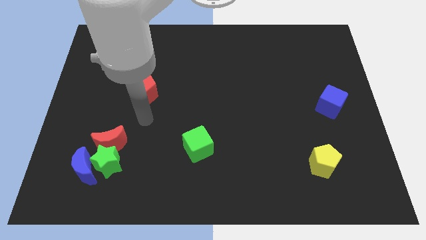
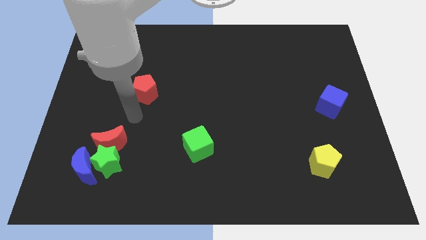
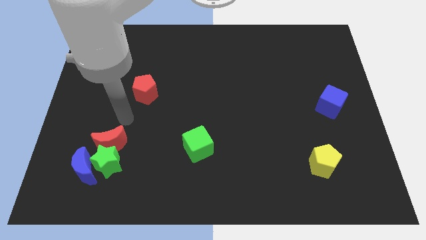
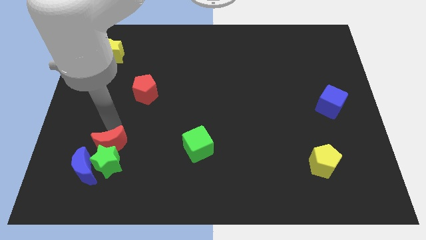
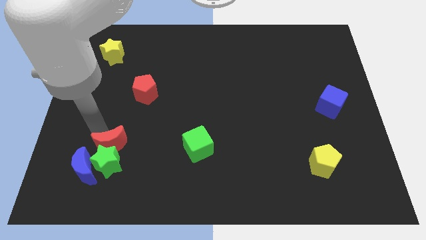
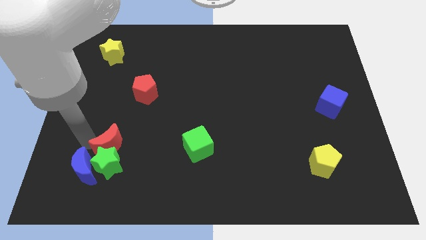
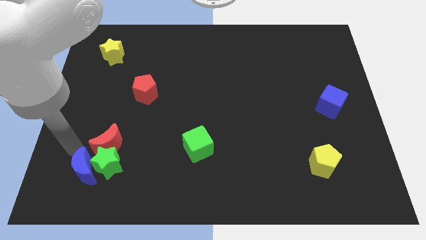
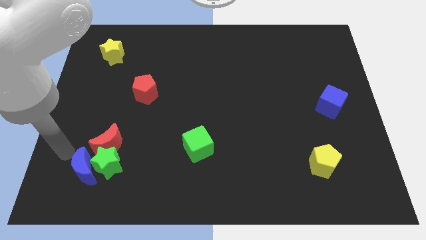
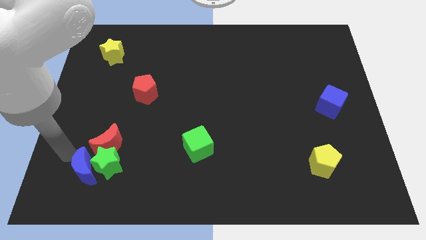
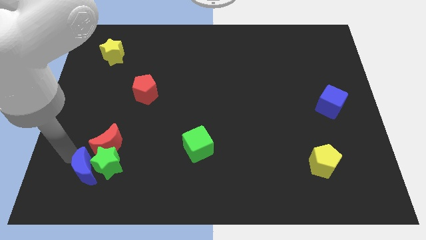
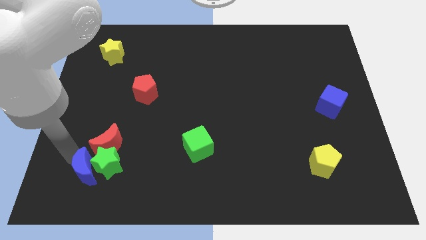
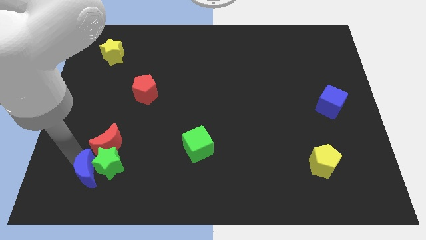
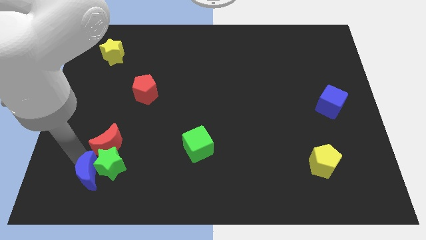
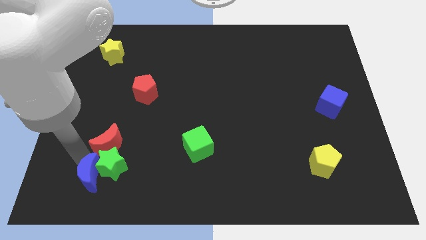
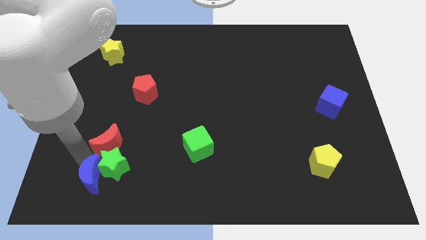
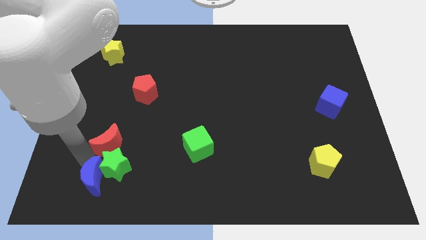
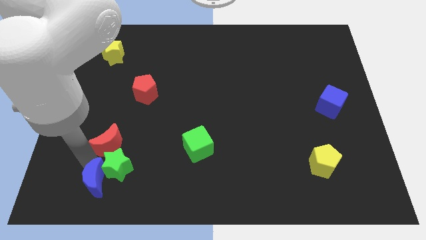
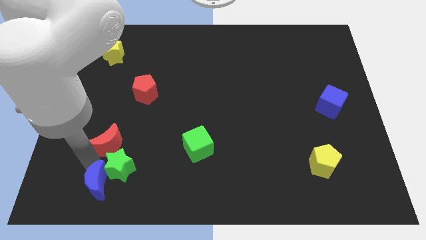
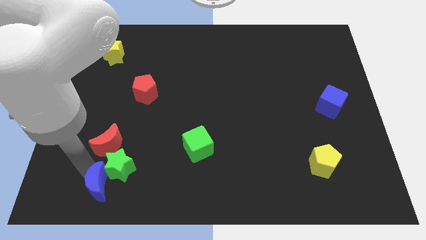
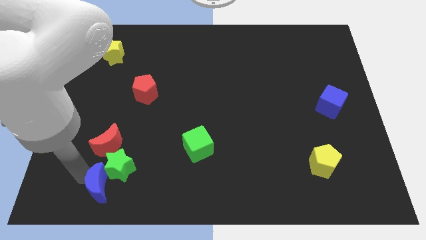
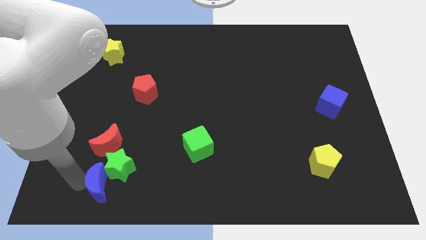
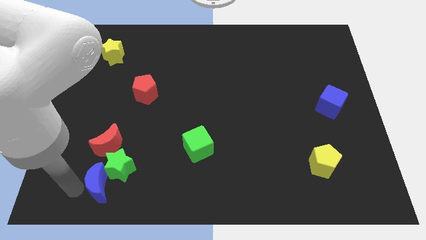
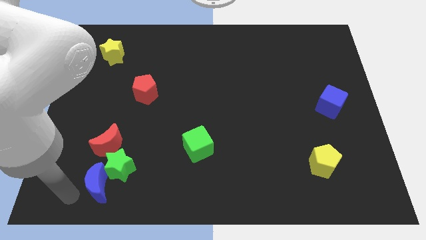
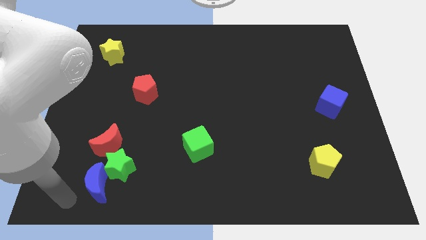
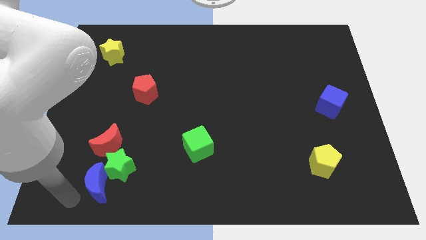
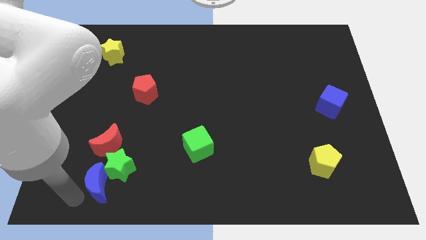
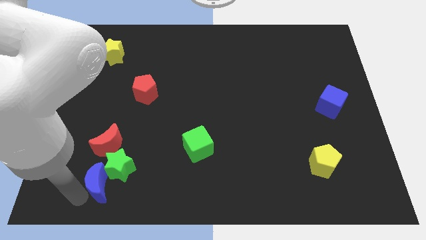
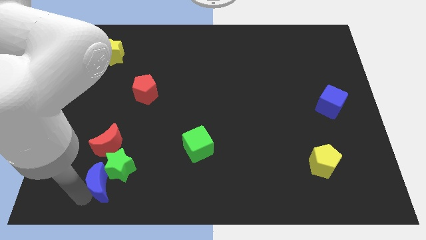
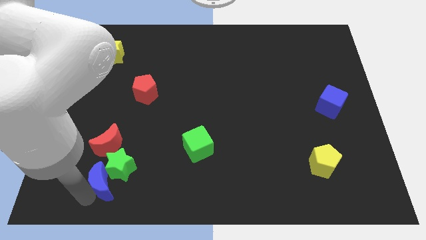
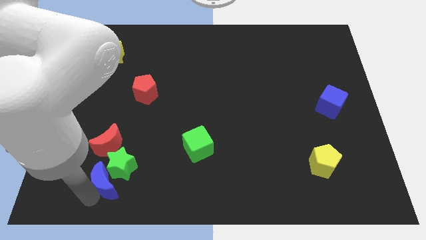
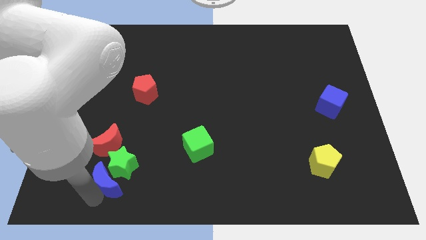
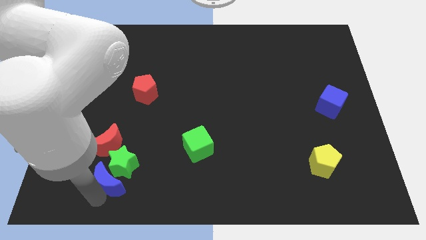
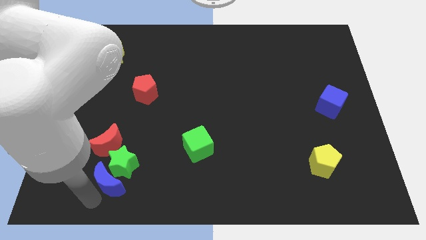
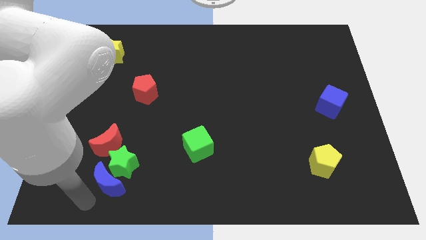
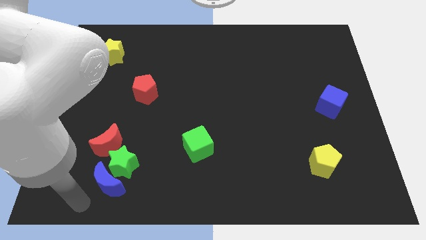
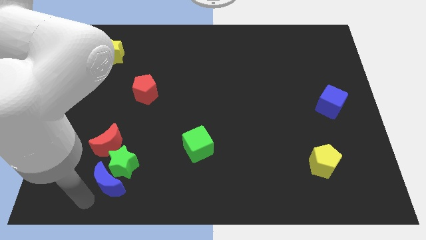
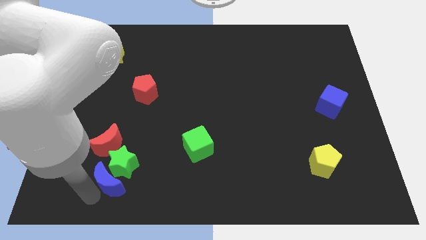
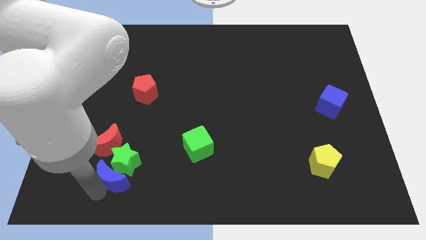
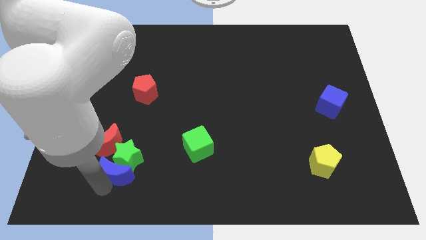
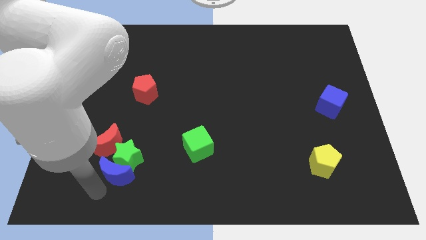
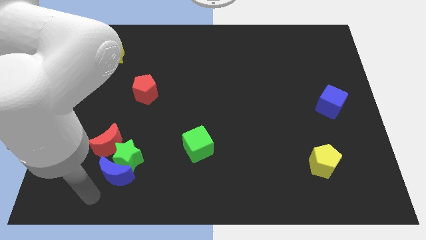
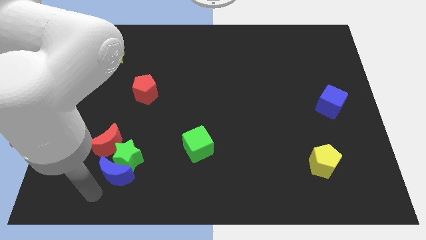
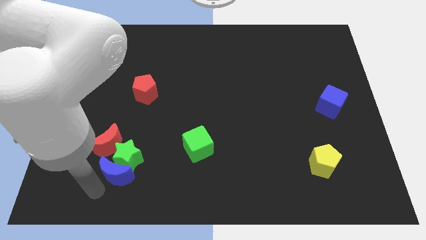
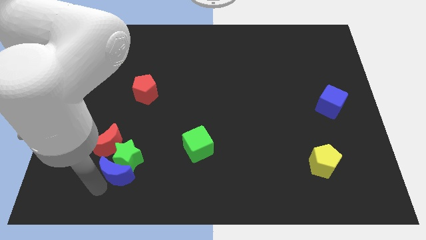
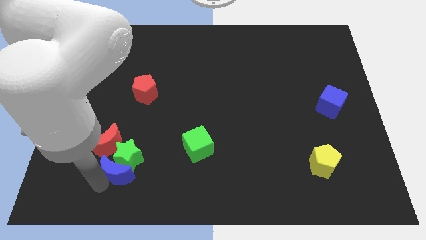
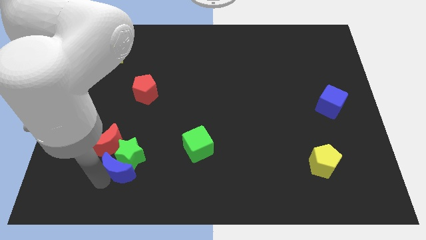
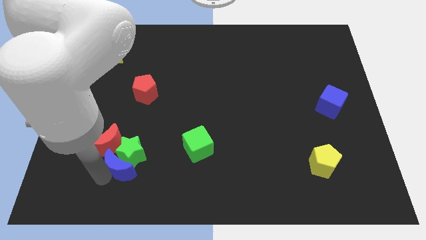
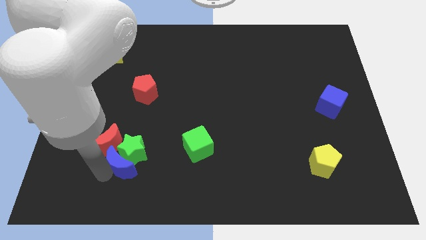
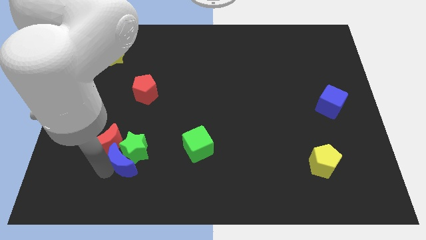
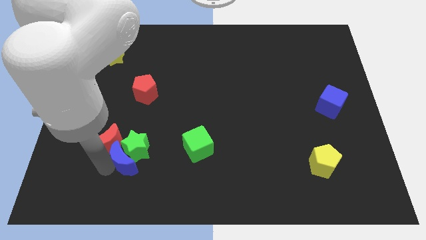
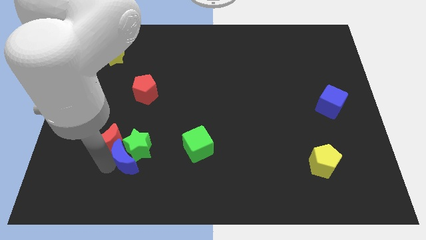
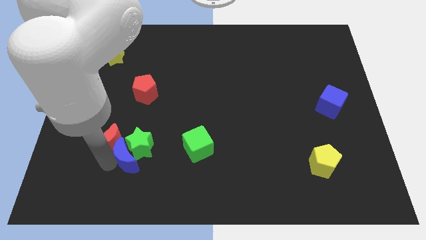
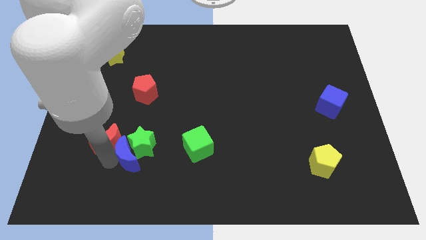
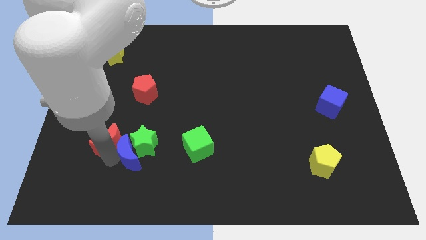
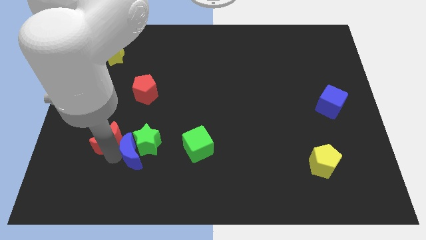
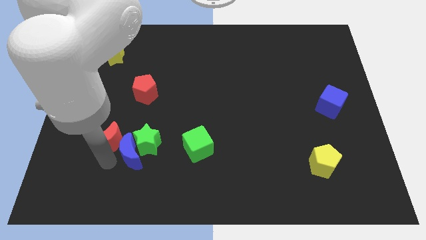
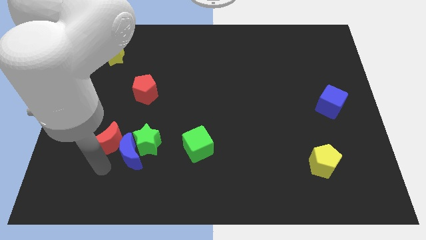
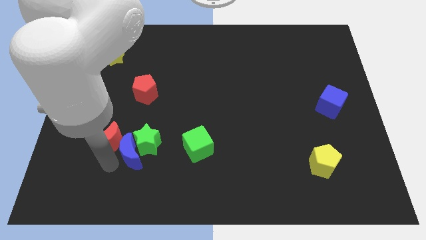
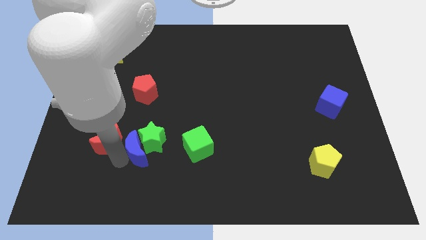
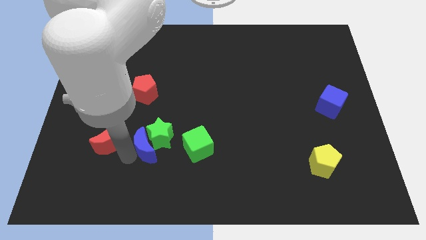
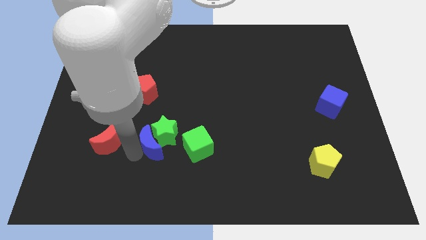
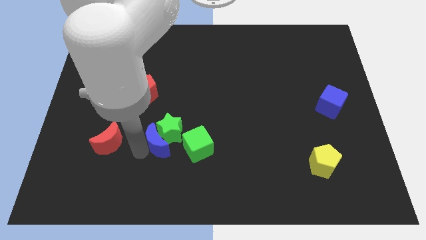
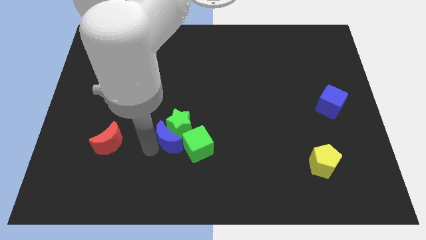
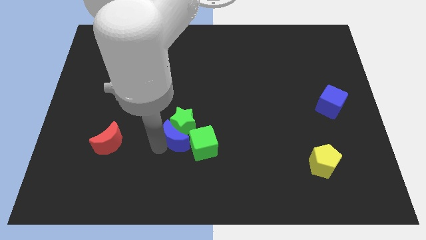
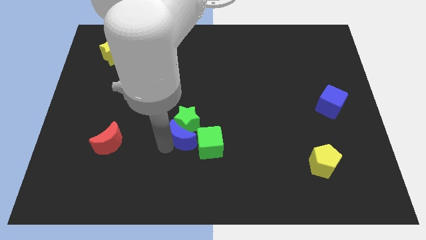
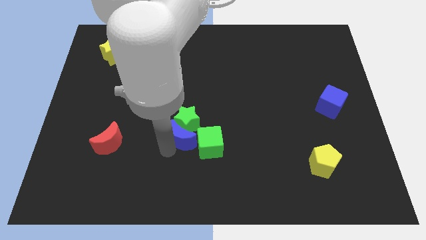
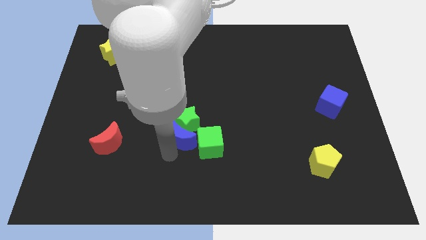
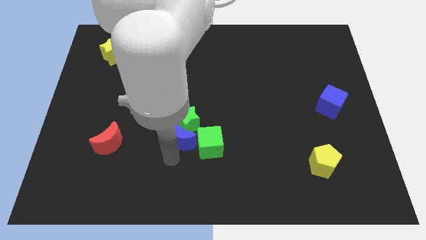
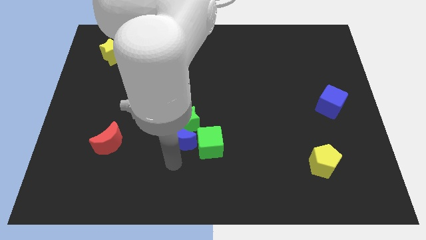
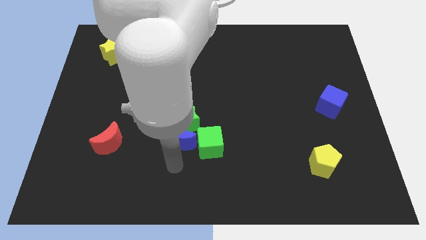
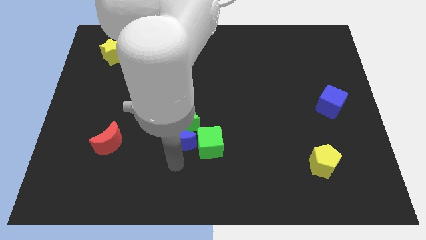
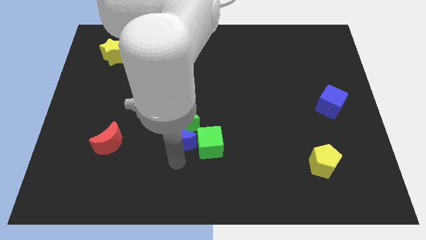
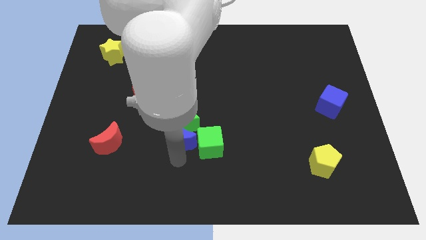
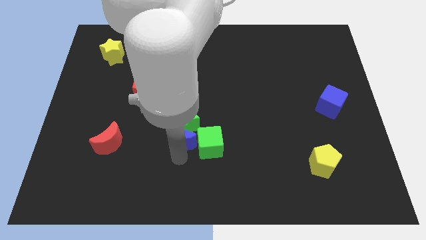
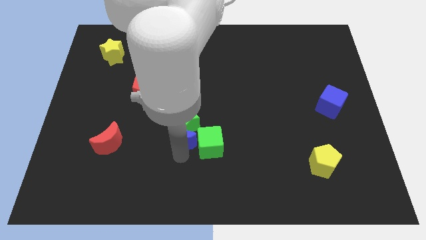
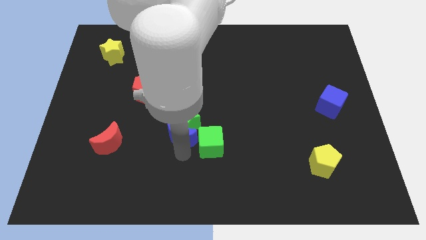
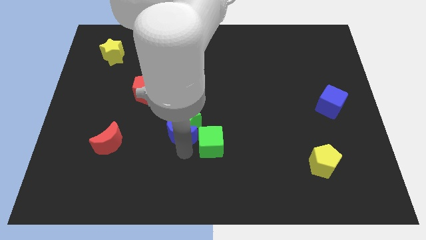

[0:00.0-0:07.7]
push the blue moon to the center
